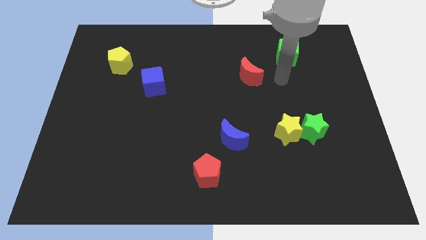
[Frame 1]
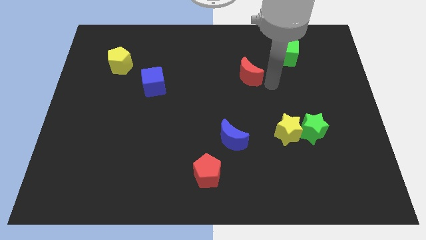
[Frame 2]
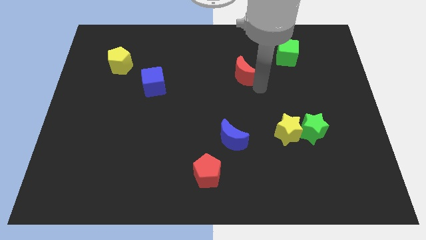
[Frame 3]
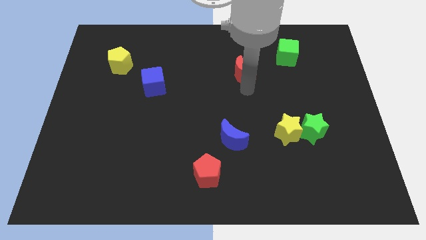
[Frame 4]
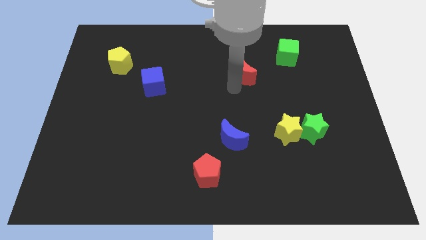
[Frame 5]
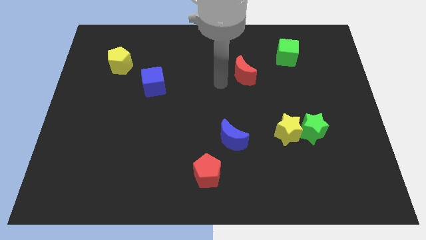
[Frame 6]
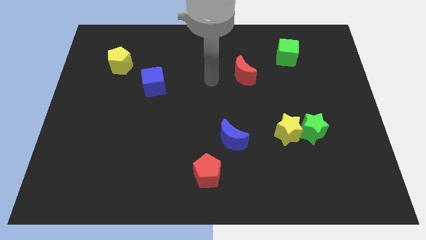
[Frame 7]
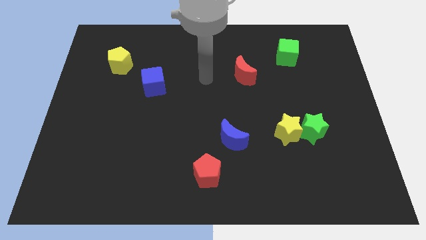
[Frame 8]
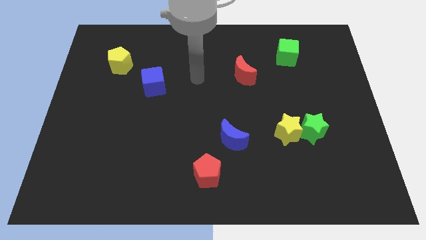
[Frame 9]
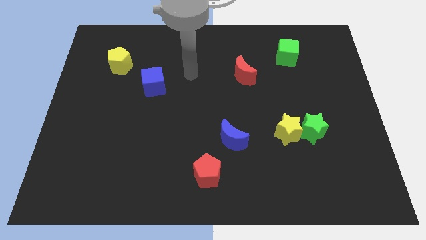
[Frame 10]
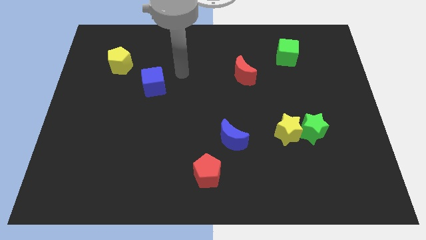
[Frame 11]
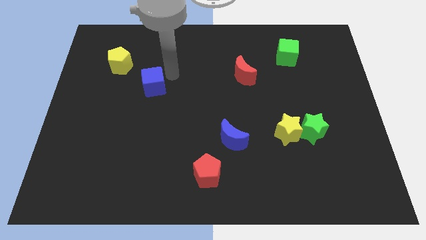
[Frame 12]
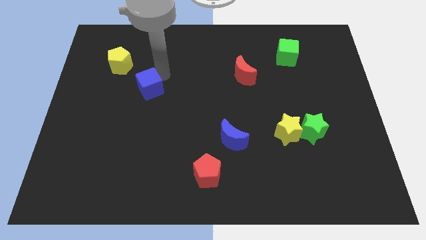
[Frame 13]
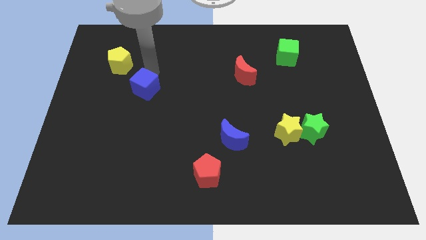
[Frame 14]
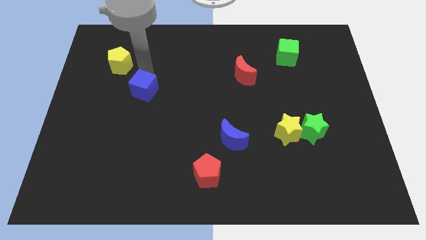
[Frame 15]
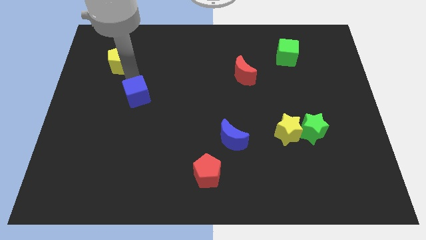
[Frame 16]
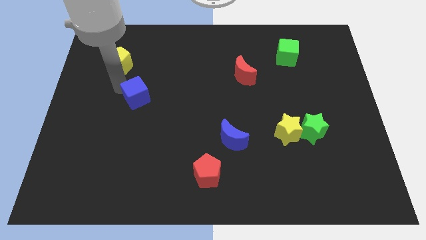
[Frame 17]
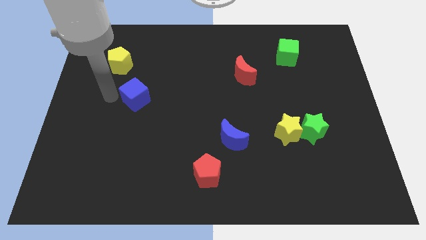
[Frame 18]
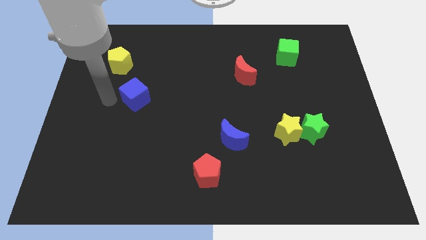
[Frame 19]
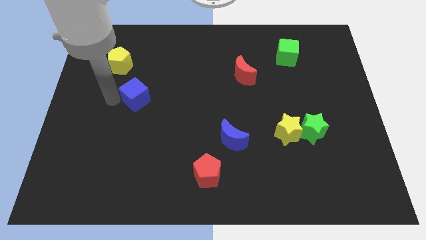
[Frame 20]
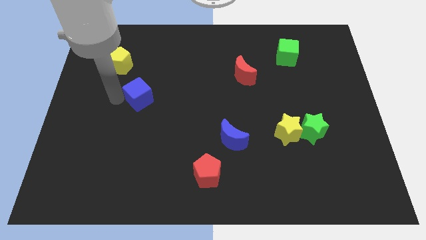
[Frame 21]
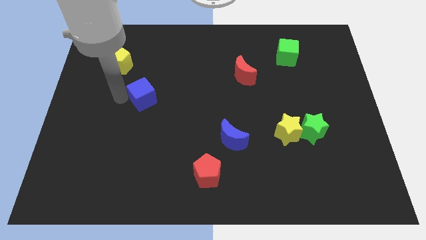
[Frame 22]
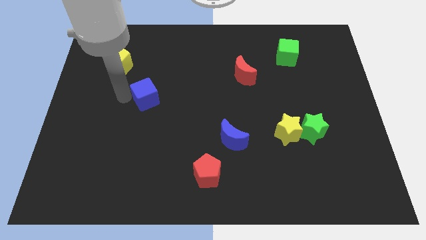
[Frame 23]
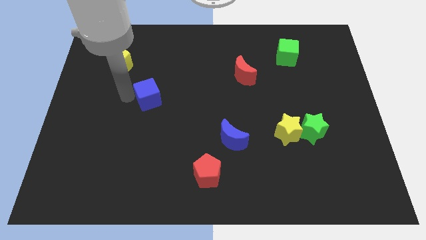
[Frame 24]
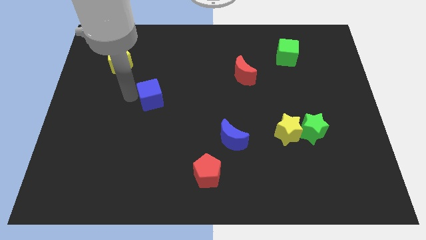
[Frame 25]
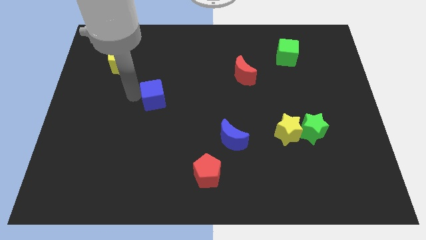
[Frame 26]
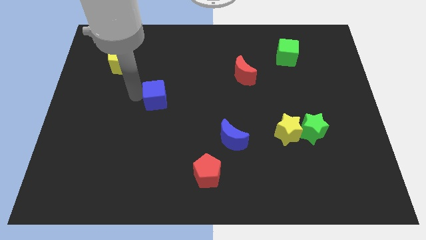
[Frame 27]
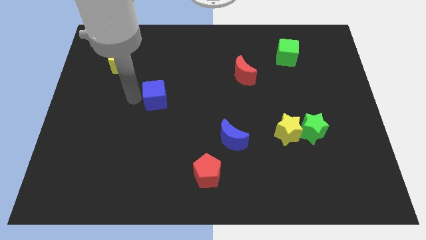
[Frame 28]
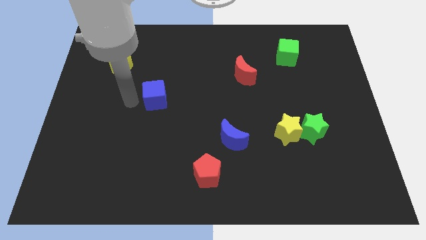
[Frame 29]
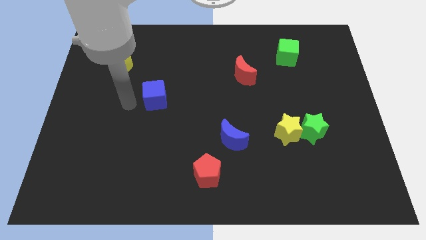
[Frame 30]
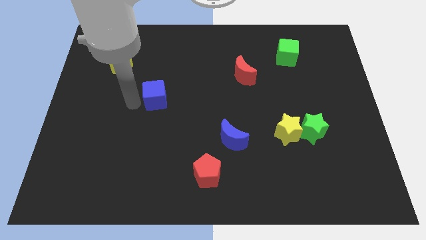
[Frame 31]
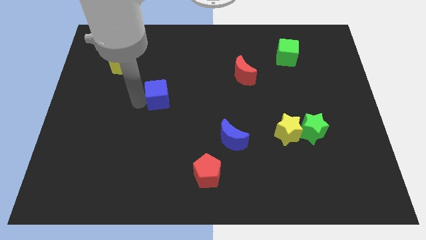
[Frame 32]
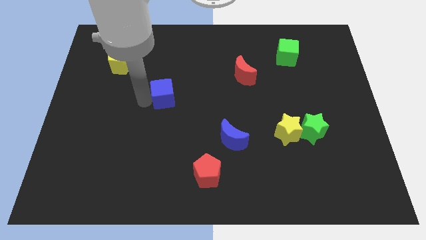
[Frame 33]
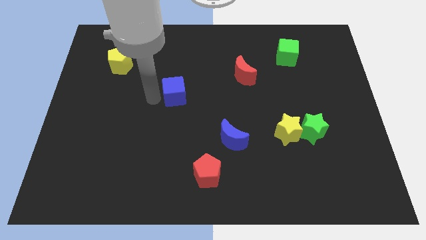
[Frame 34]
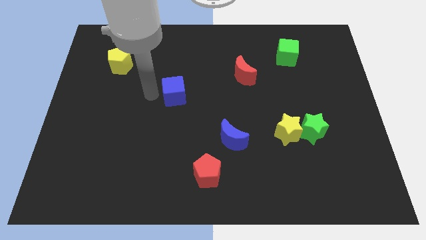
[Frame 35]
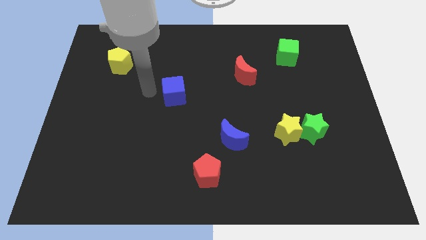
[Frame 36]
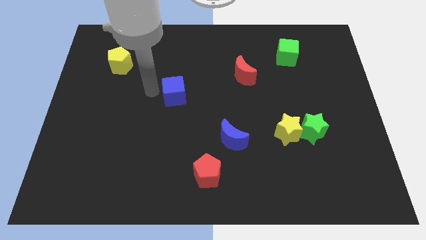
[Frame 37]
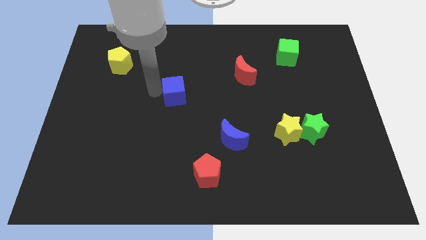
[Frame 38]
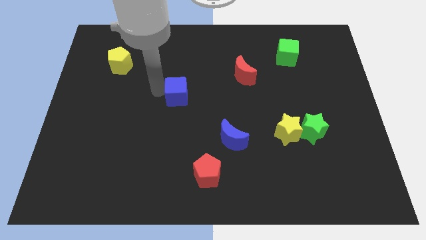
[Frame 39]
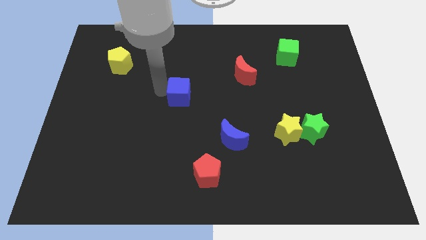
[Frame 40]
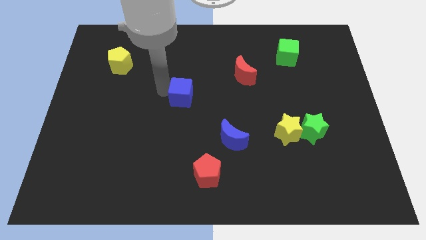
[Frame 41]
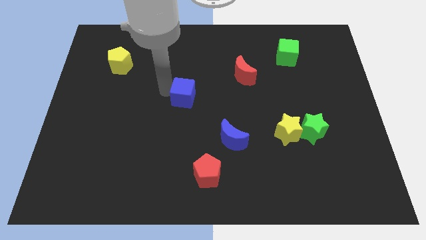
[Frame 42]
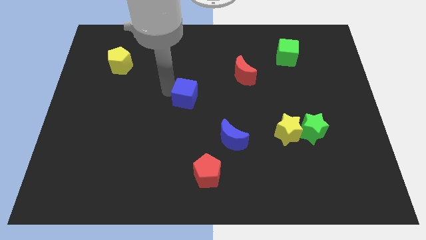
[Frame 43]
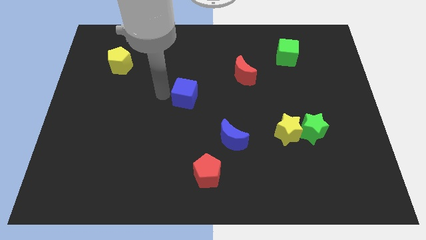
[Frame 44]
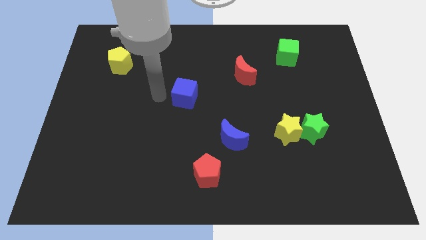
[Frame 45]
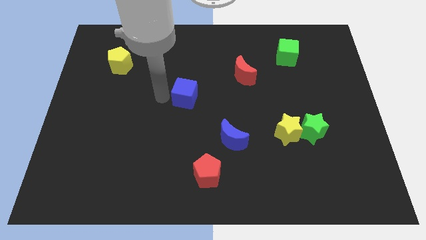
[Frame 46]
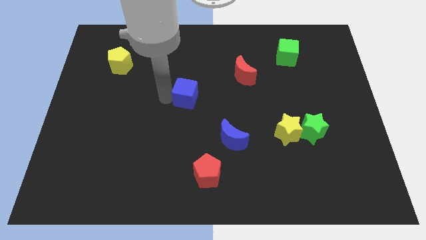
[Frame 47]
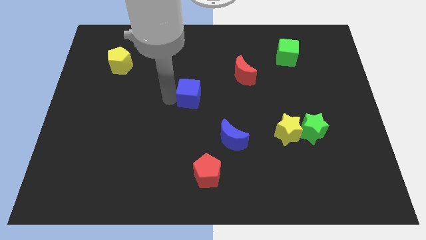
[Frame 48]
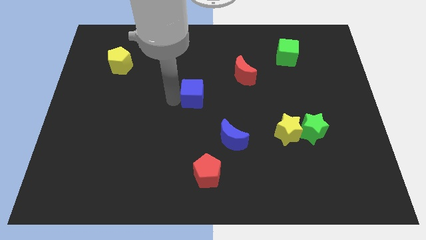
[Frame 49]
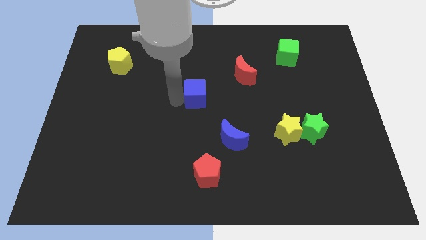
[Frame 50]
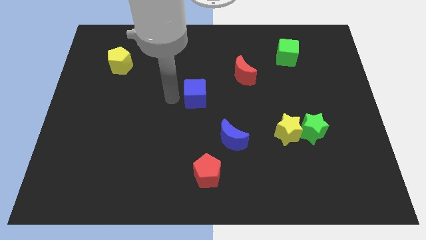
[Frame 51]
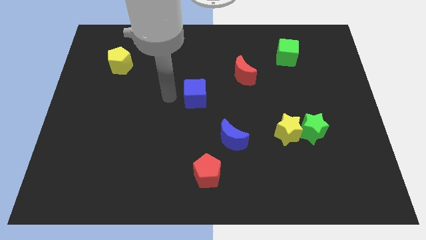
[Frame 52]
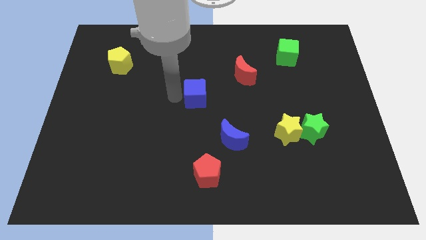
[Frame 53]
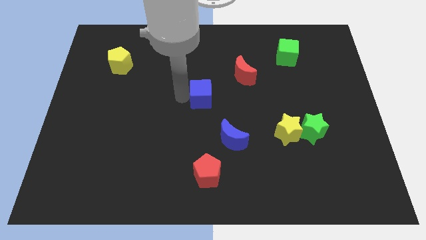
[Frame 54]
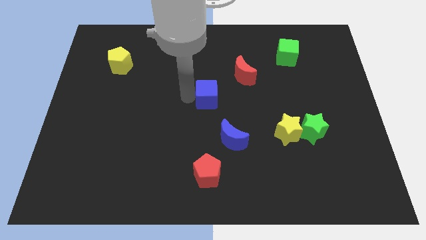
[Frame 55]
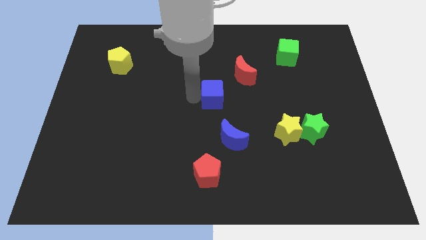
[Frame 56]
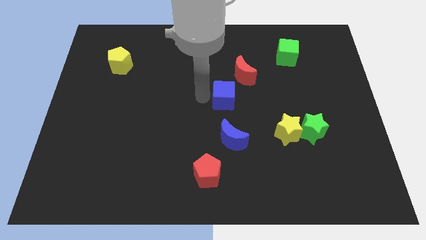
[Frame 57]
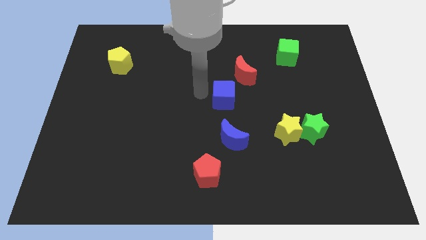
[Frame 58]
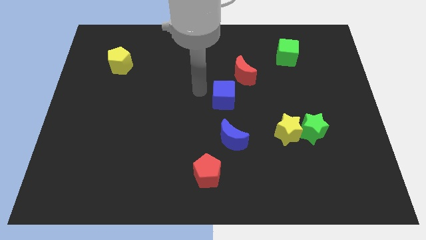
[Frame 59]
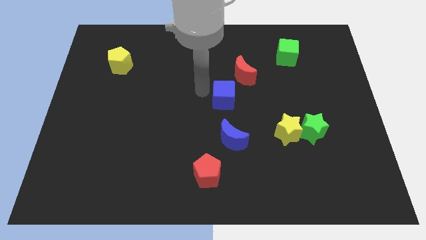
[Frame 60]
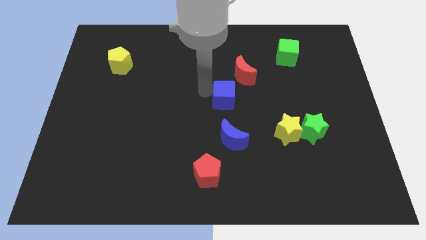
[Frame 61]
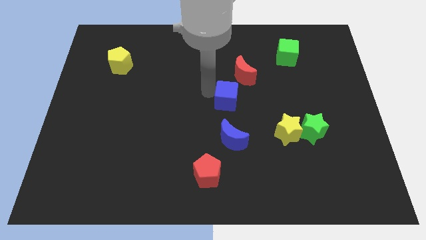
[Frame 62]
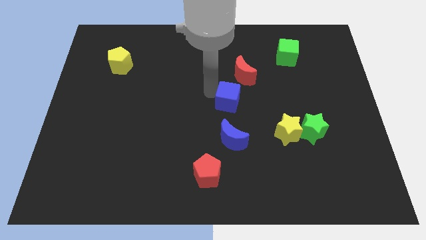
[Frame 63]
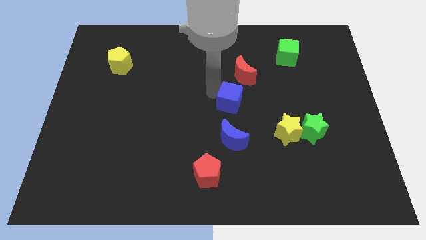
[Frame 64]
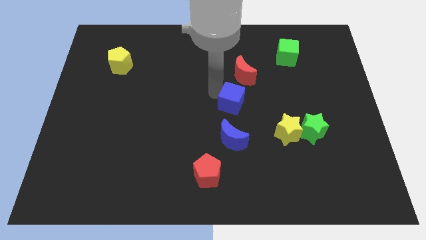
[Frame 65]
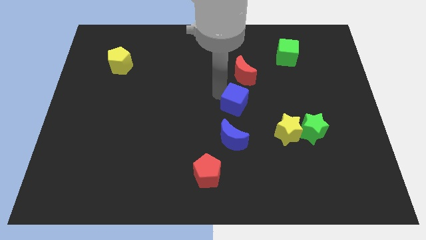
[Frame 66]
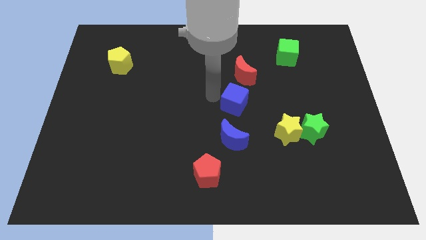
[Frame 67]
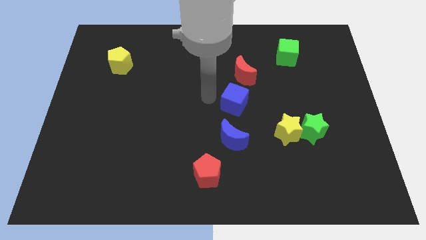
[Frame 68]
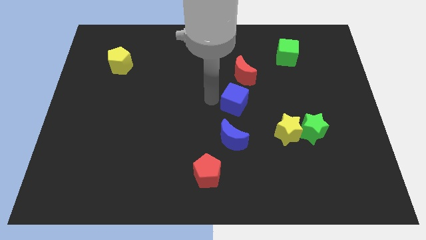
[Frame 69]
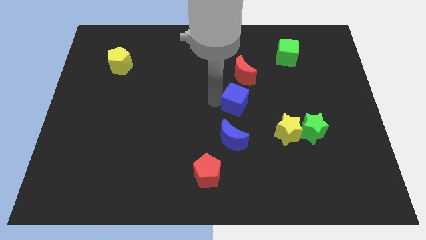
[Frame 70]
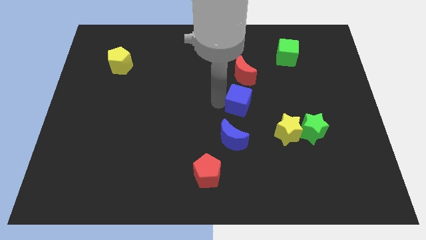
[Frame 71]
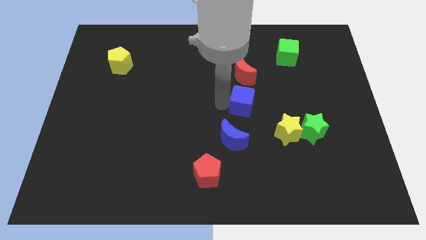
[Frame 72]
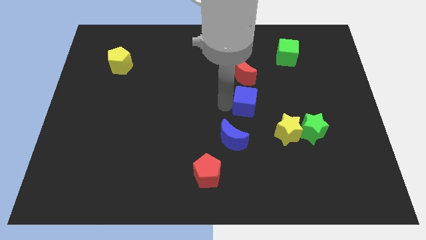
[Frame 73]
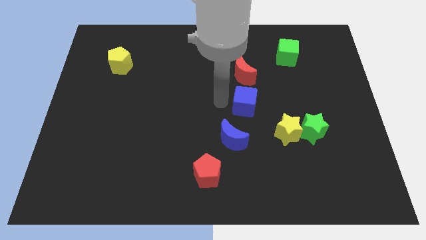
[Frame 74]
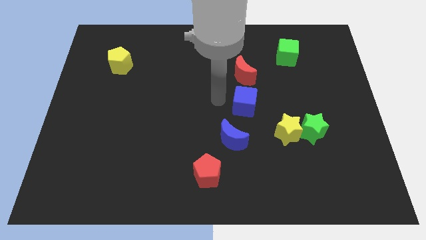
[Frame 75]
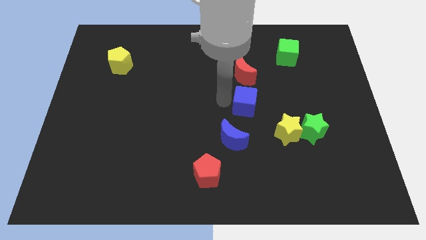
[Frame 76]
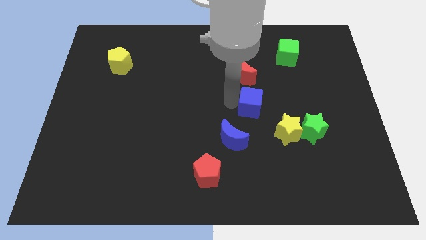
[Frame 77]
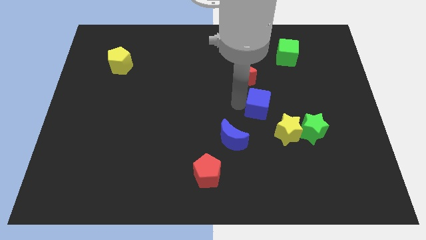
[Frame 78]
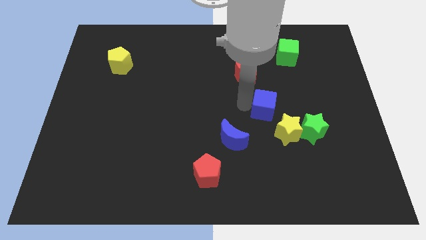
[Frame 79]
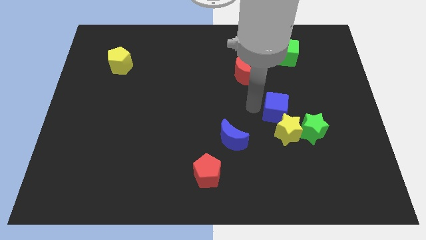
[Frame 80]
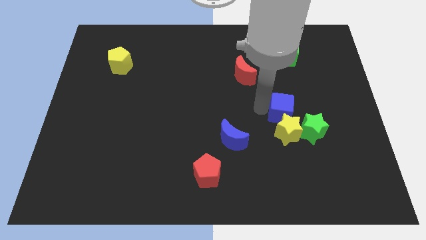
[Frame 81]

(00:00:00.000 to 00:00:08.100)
put the blue cube diagonally up and to the right of the yellow star
